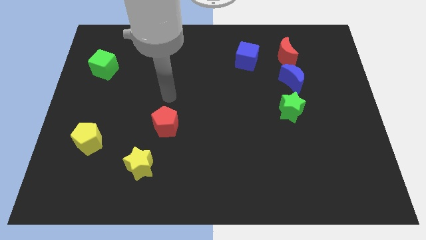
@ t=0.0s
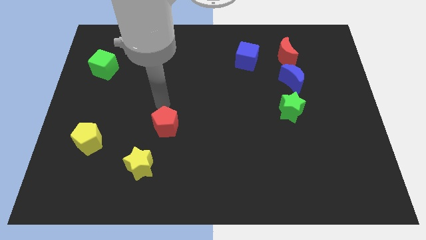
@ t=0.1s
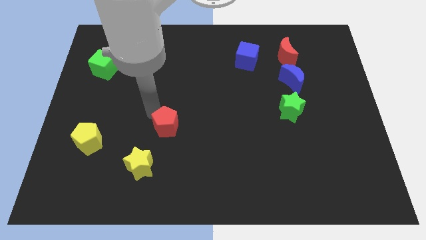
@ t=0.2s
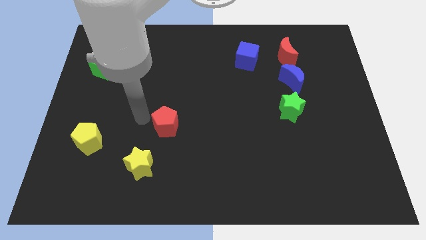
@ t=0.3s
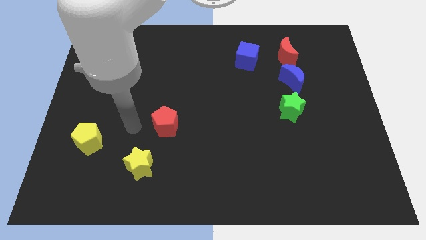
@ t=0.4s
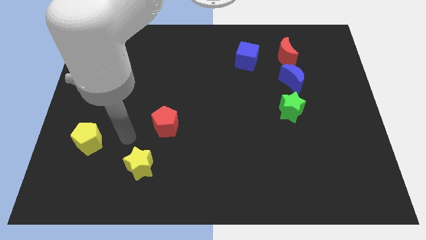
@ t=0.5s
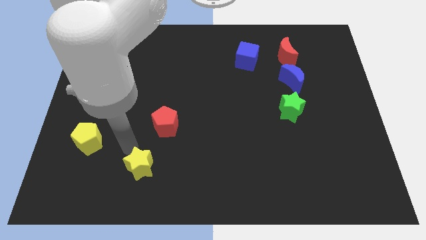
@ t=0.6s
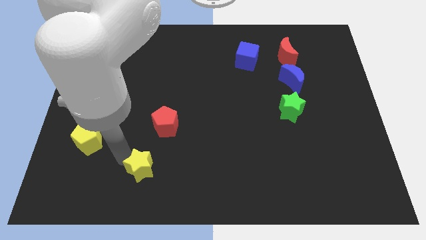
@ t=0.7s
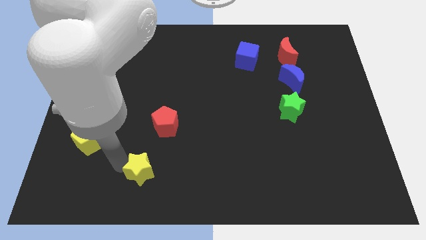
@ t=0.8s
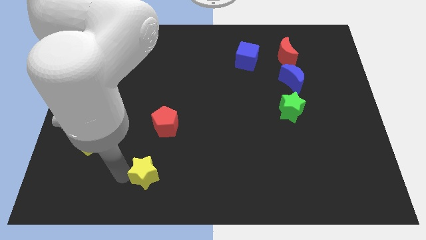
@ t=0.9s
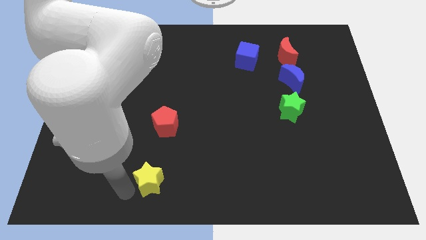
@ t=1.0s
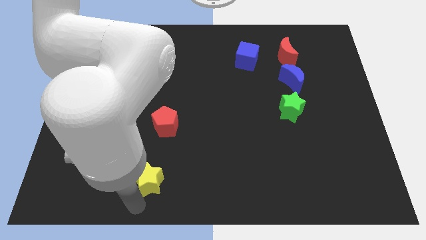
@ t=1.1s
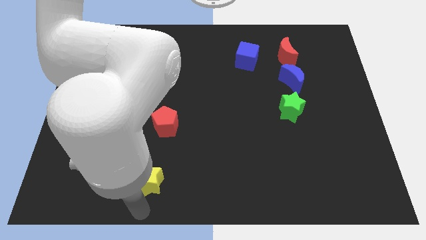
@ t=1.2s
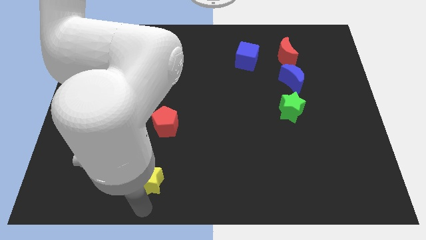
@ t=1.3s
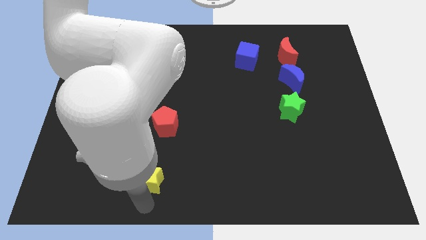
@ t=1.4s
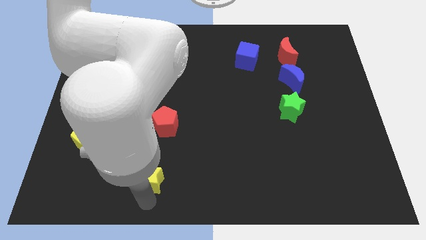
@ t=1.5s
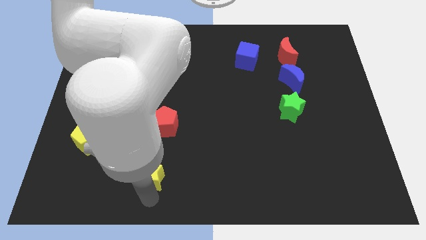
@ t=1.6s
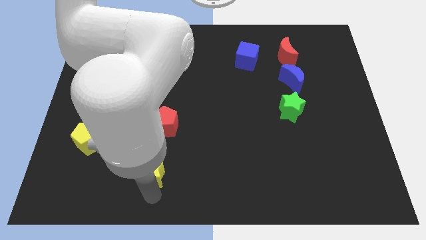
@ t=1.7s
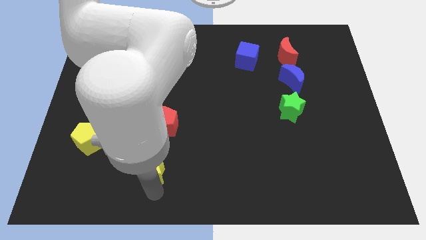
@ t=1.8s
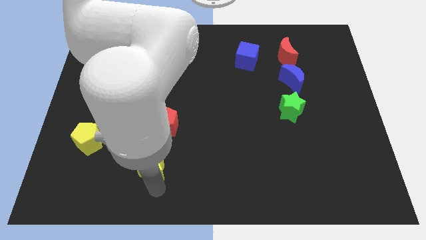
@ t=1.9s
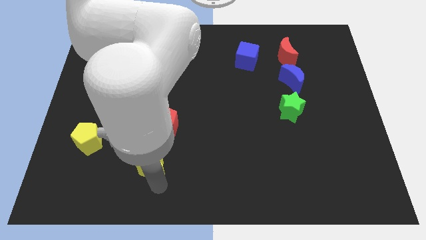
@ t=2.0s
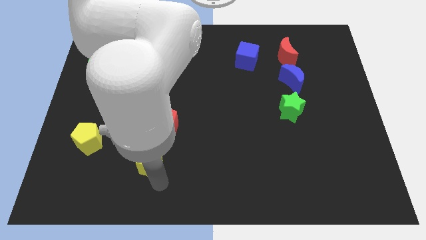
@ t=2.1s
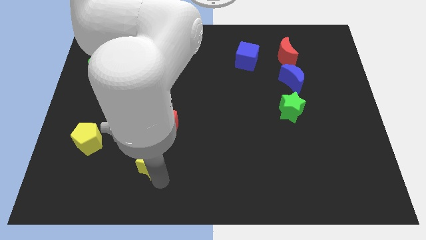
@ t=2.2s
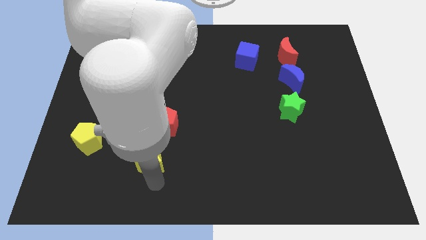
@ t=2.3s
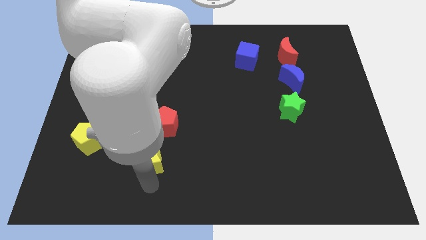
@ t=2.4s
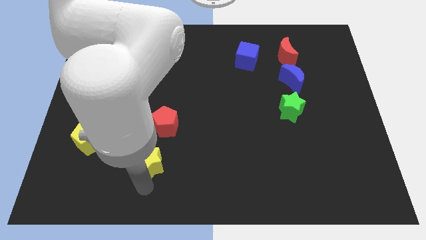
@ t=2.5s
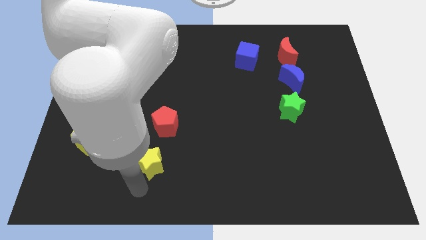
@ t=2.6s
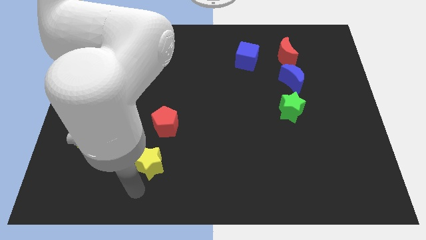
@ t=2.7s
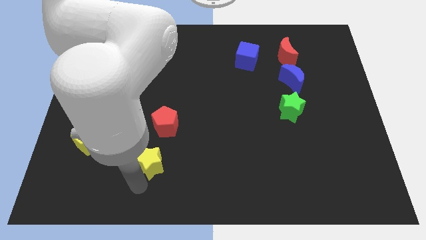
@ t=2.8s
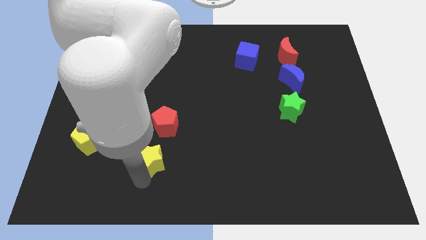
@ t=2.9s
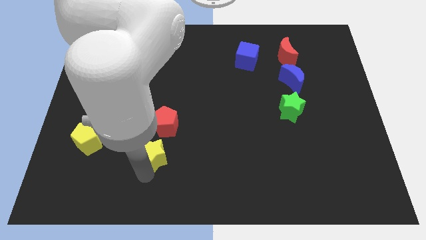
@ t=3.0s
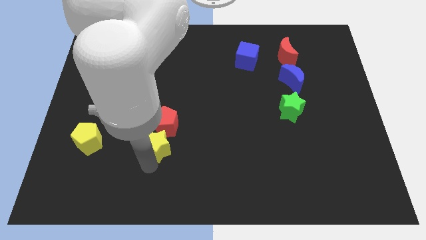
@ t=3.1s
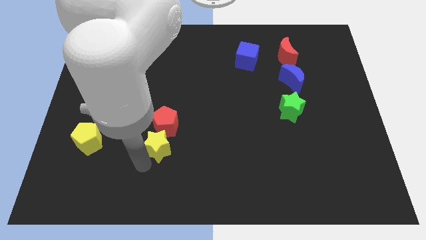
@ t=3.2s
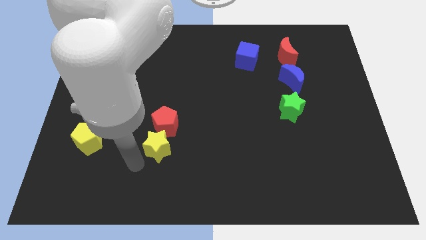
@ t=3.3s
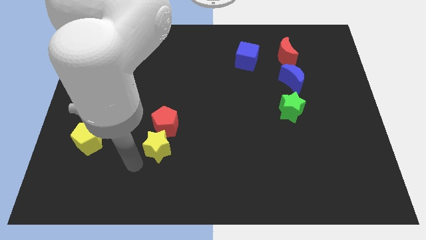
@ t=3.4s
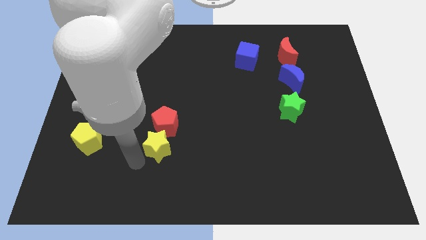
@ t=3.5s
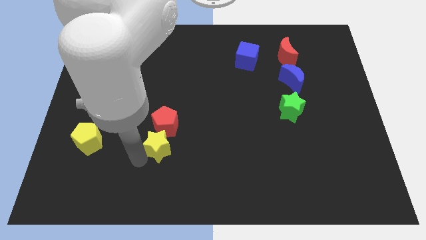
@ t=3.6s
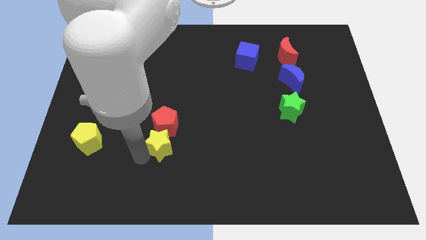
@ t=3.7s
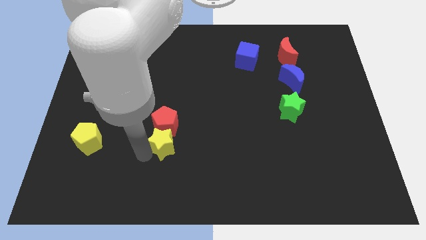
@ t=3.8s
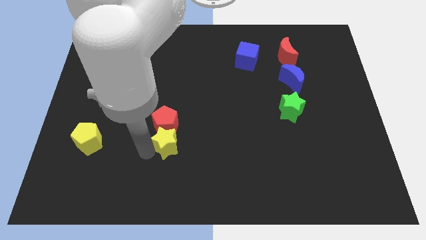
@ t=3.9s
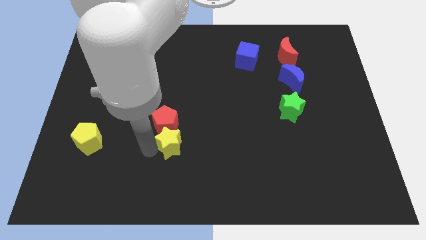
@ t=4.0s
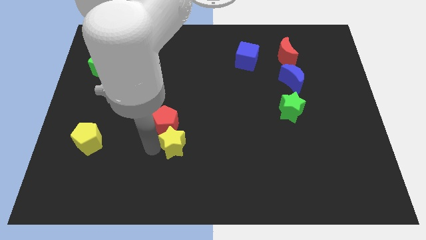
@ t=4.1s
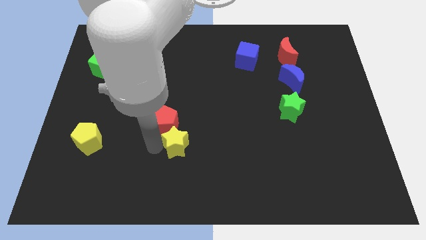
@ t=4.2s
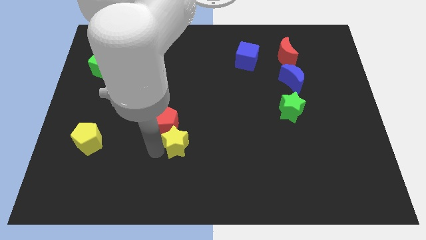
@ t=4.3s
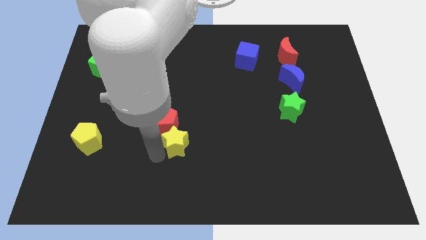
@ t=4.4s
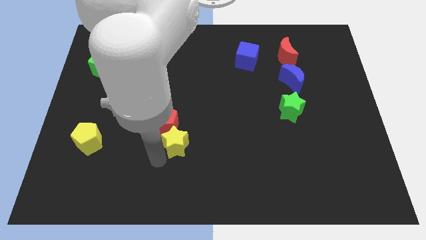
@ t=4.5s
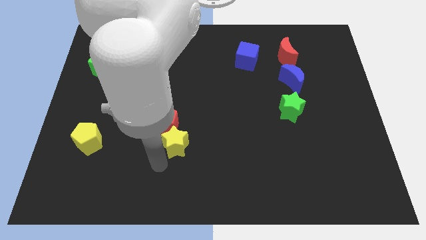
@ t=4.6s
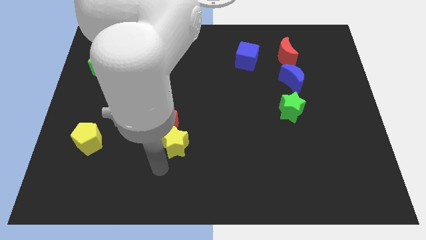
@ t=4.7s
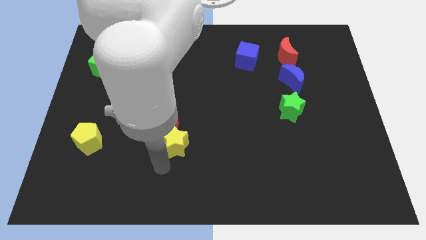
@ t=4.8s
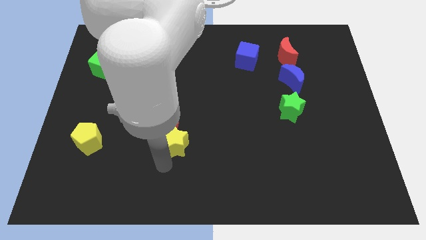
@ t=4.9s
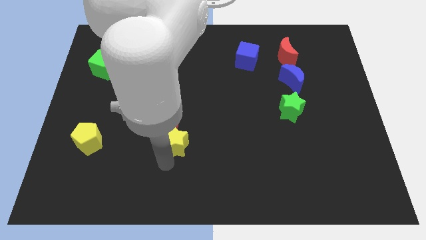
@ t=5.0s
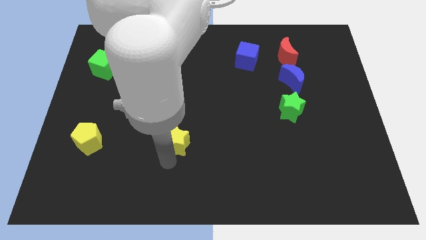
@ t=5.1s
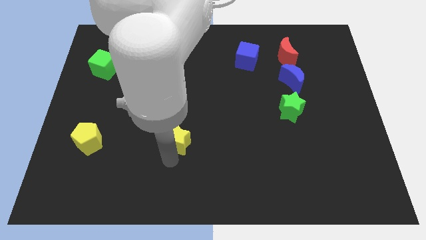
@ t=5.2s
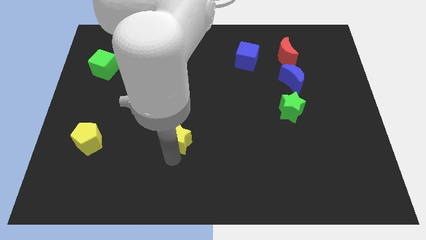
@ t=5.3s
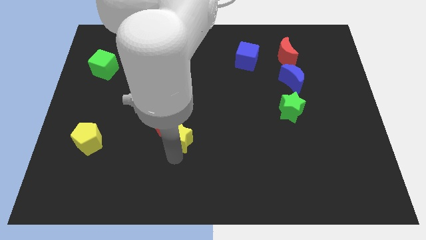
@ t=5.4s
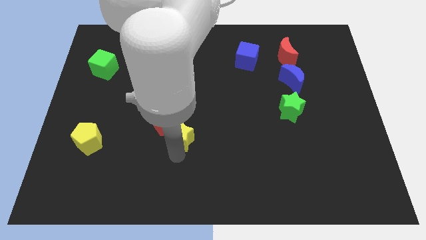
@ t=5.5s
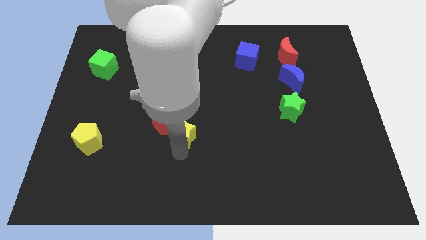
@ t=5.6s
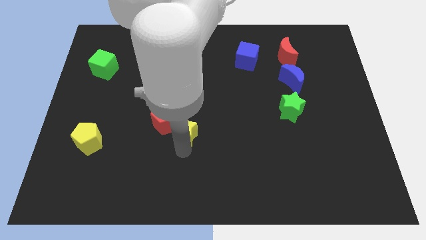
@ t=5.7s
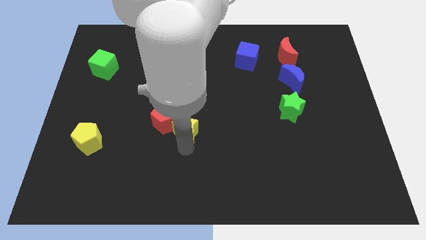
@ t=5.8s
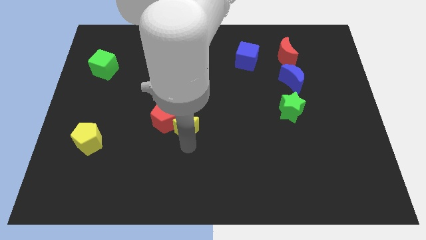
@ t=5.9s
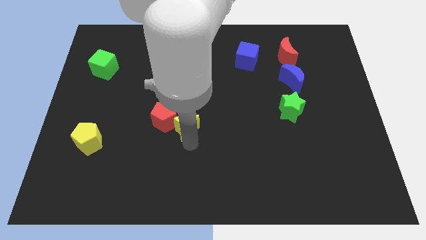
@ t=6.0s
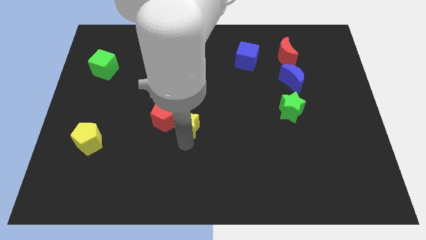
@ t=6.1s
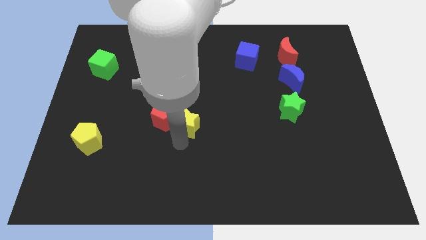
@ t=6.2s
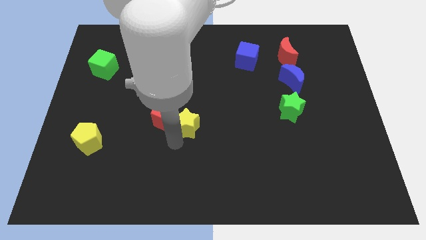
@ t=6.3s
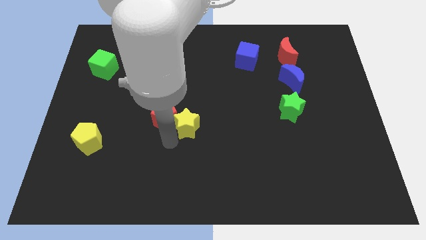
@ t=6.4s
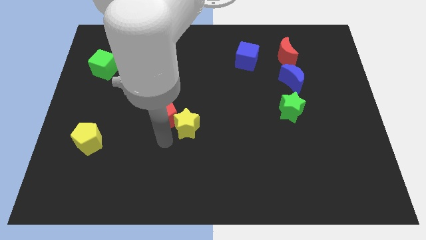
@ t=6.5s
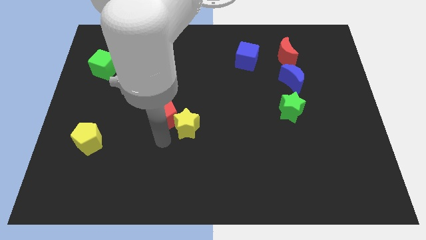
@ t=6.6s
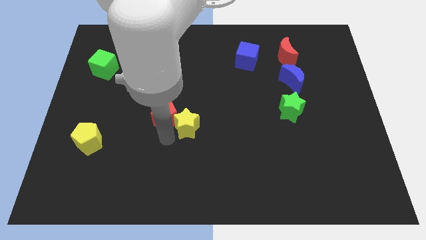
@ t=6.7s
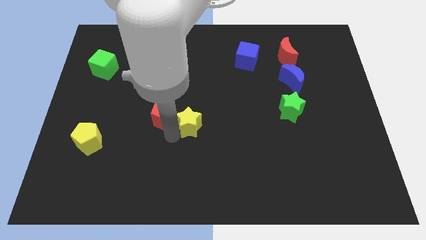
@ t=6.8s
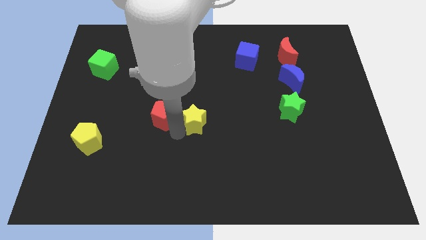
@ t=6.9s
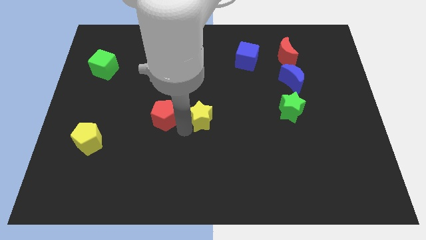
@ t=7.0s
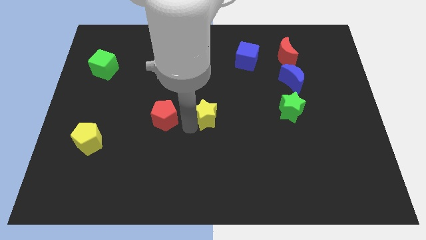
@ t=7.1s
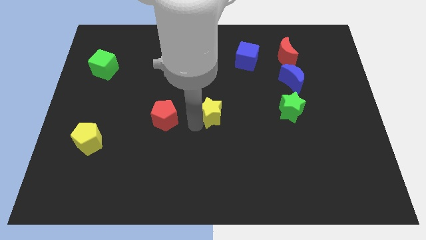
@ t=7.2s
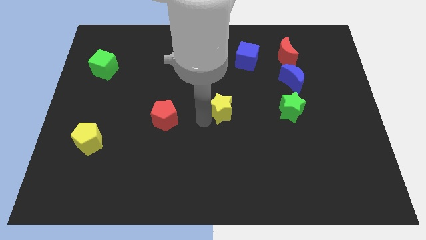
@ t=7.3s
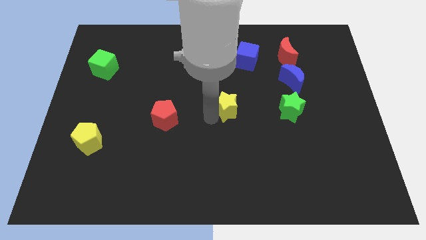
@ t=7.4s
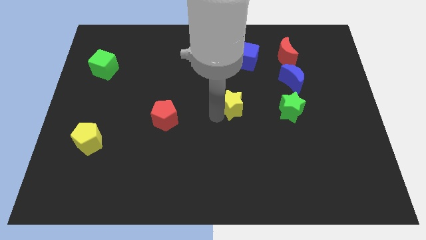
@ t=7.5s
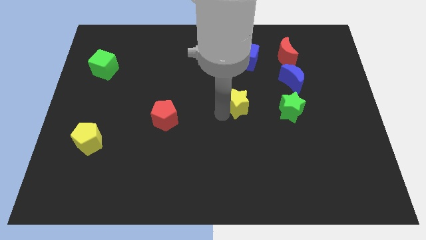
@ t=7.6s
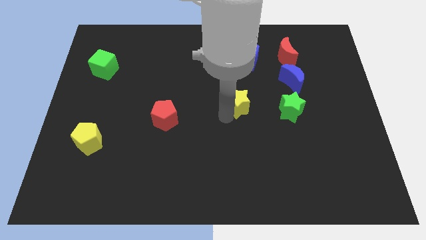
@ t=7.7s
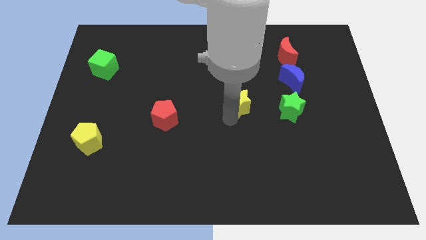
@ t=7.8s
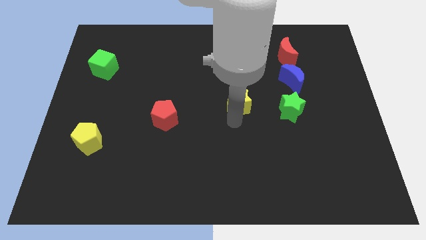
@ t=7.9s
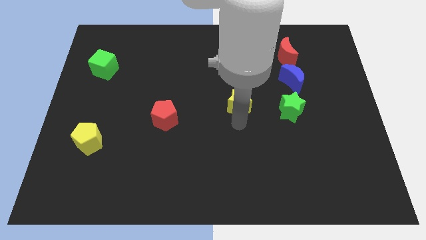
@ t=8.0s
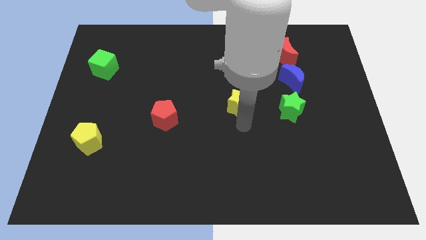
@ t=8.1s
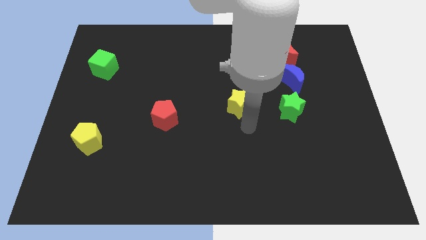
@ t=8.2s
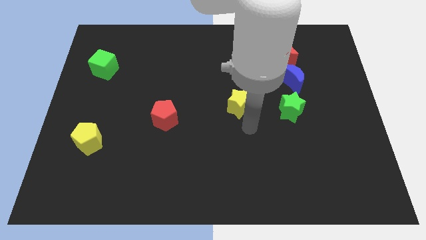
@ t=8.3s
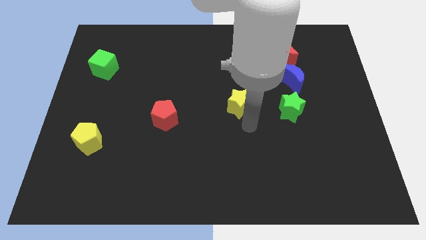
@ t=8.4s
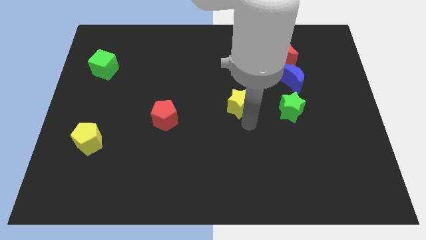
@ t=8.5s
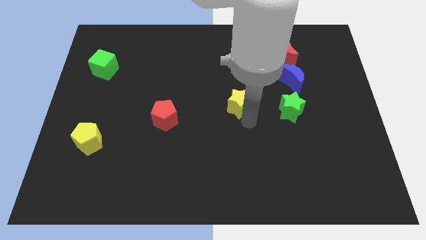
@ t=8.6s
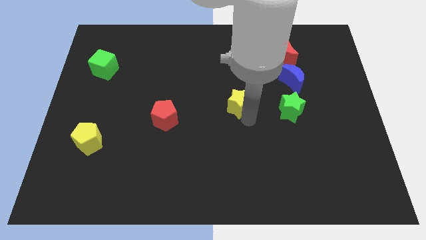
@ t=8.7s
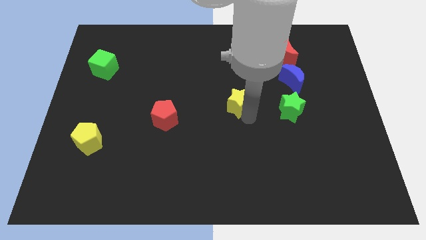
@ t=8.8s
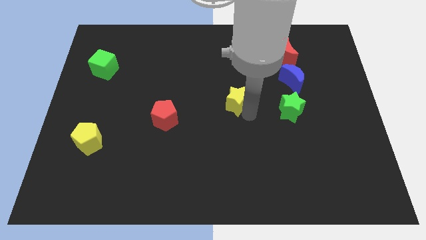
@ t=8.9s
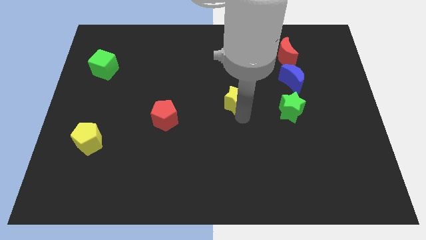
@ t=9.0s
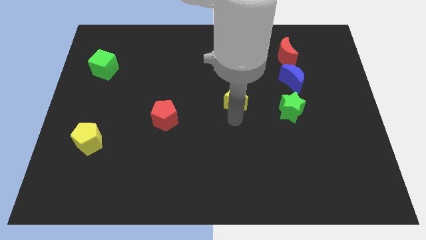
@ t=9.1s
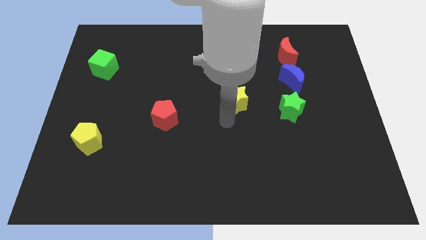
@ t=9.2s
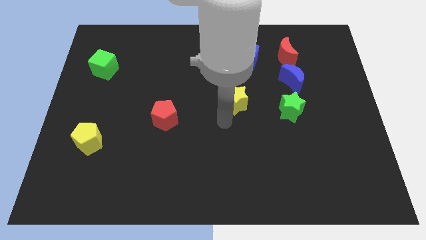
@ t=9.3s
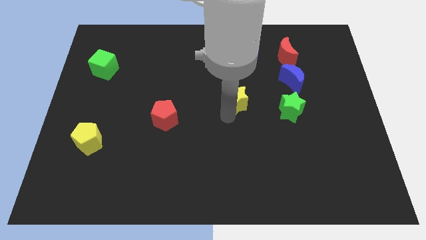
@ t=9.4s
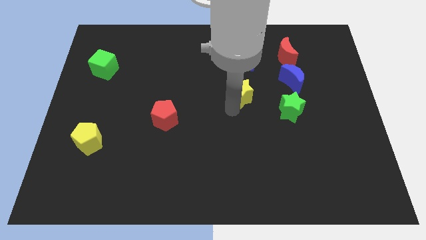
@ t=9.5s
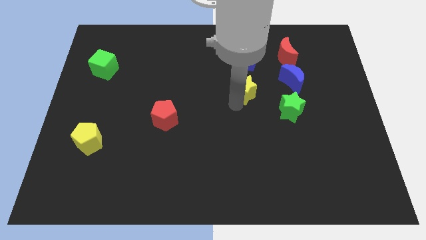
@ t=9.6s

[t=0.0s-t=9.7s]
move the yellow star to the left side of the blue moon
